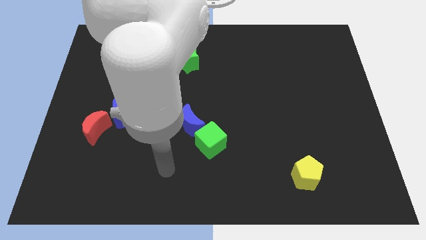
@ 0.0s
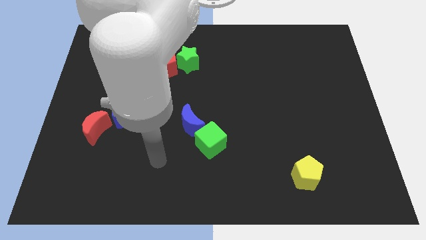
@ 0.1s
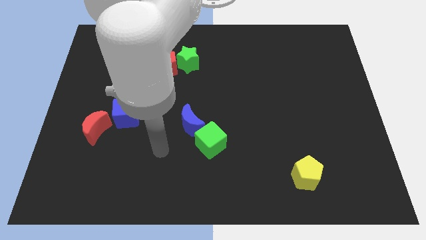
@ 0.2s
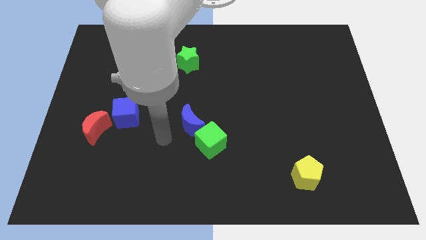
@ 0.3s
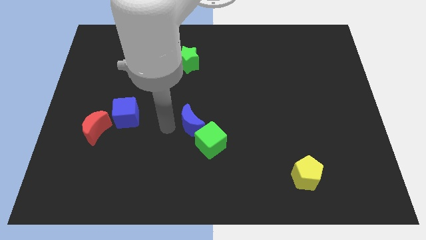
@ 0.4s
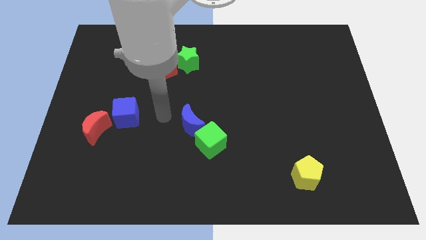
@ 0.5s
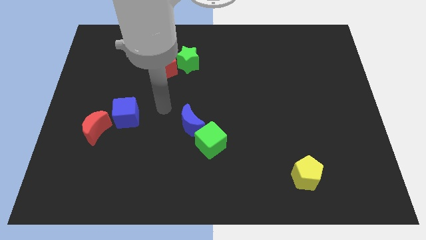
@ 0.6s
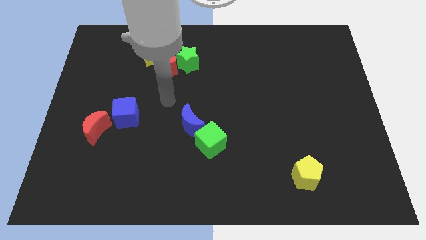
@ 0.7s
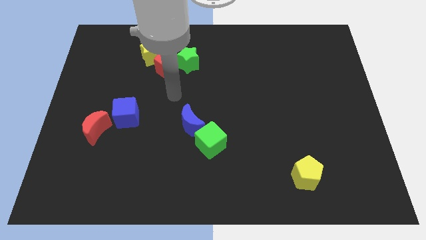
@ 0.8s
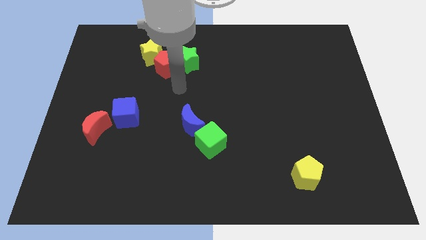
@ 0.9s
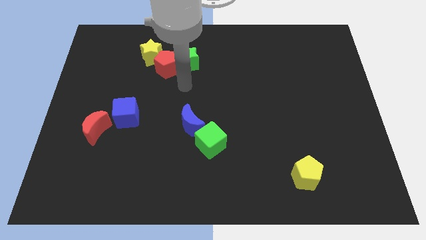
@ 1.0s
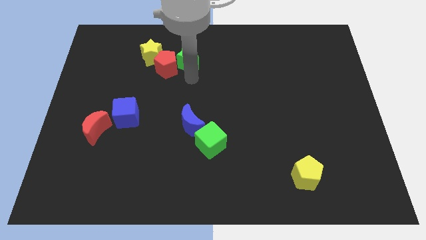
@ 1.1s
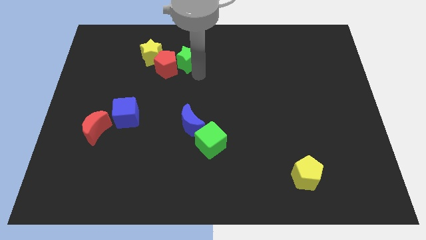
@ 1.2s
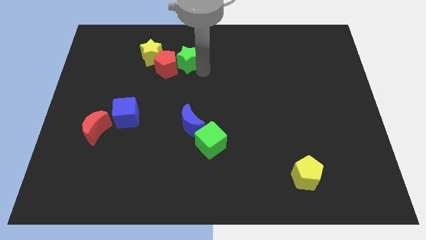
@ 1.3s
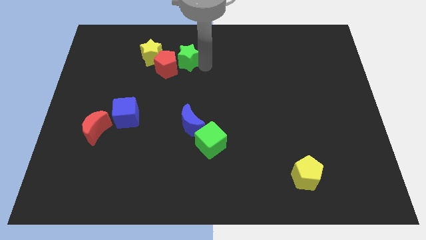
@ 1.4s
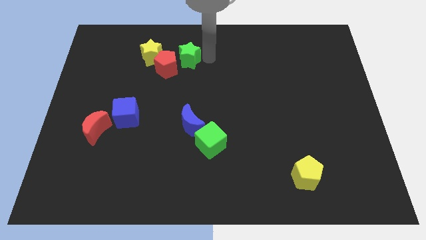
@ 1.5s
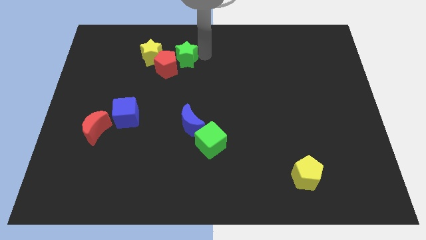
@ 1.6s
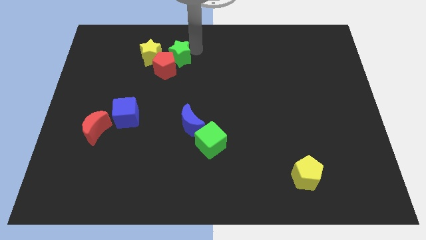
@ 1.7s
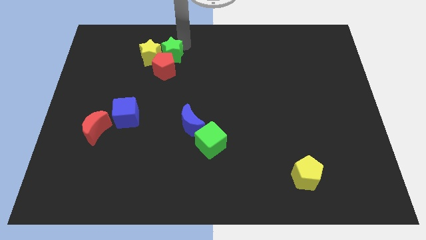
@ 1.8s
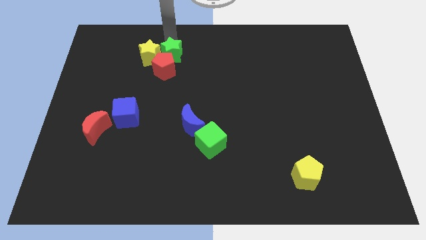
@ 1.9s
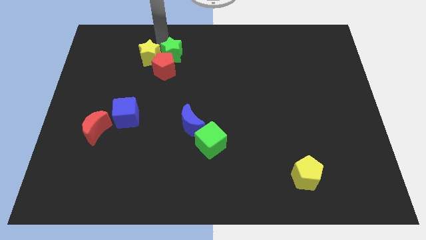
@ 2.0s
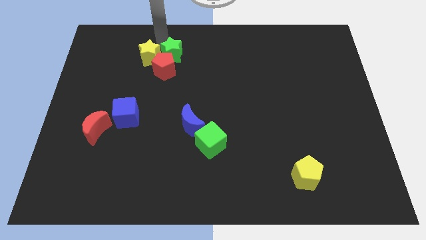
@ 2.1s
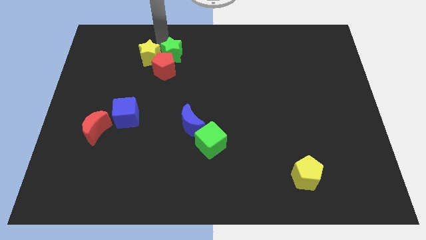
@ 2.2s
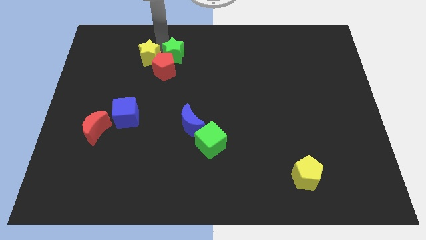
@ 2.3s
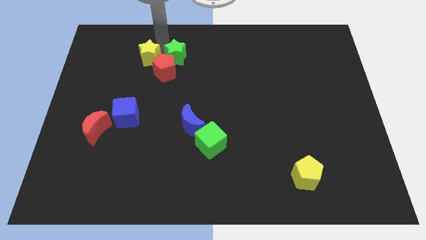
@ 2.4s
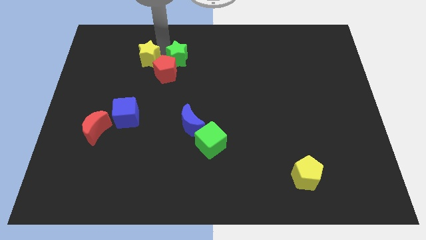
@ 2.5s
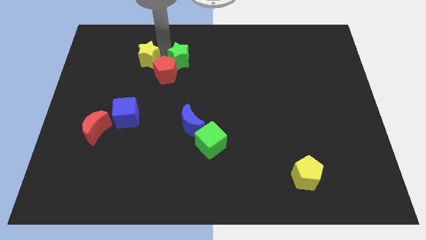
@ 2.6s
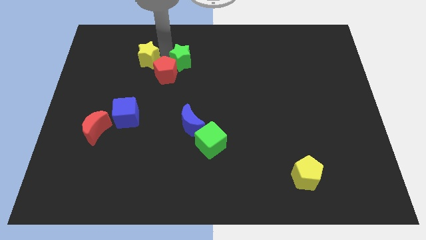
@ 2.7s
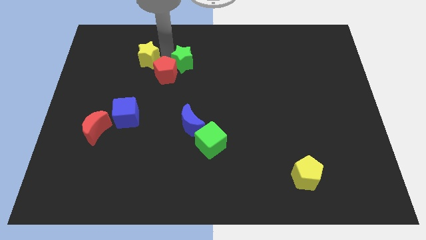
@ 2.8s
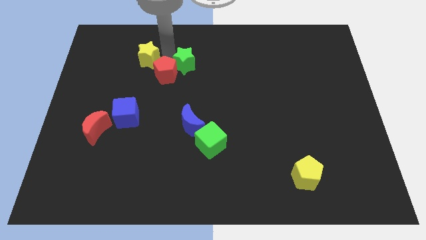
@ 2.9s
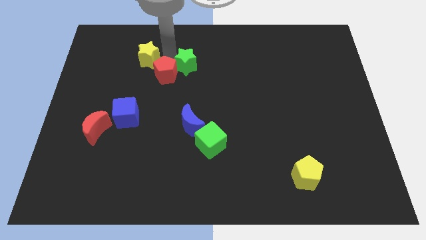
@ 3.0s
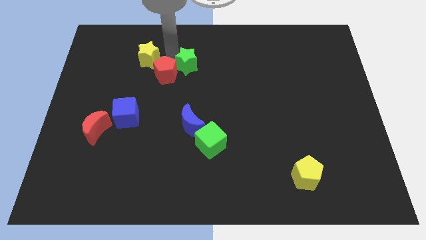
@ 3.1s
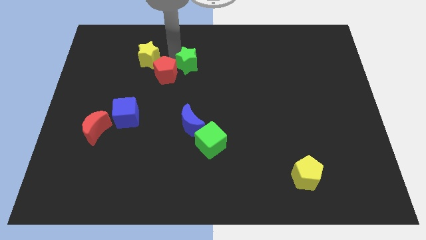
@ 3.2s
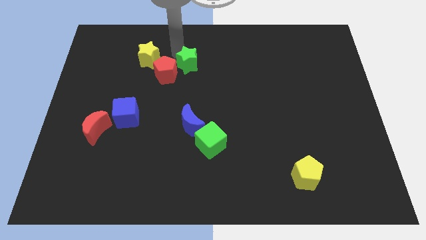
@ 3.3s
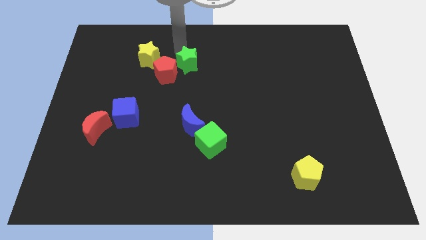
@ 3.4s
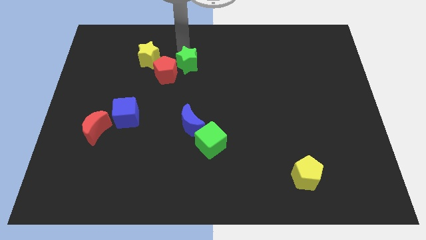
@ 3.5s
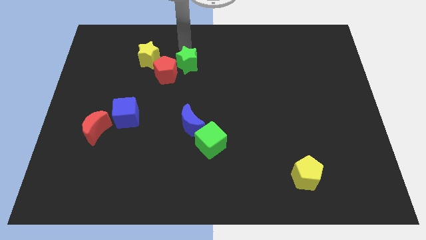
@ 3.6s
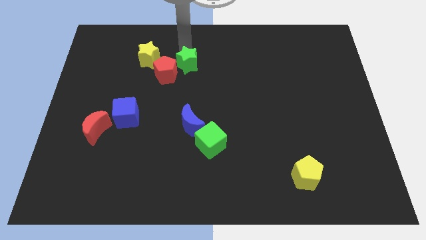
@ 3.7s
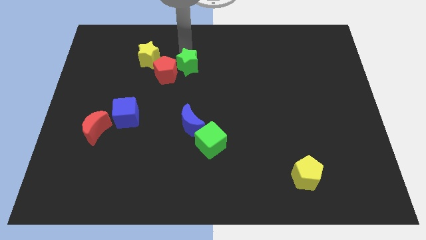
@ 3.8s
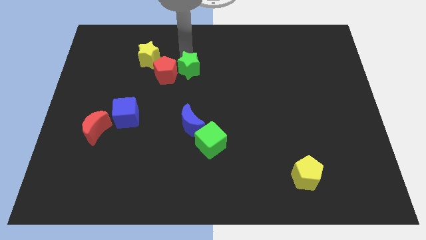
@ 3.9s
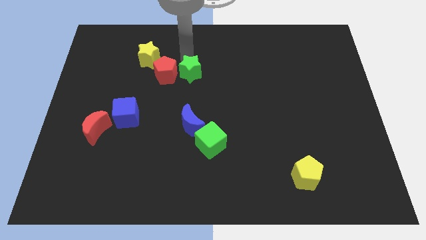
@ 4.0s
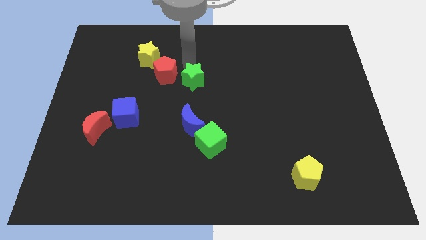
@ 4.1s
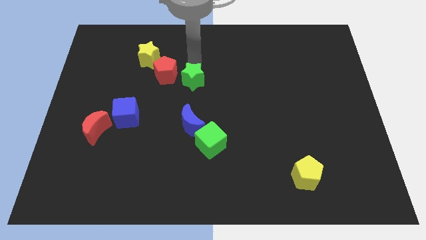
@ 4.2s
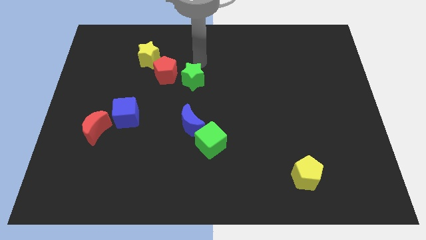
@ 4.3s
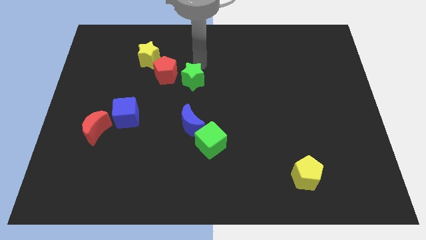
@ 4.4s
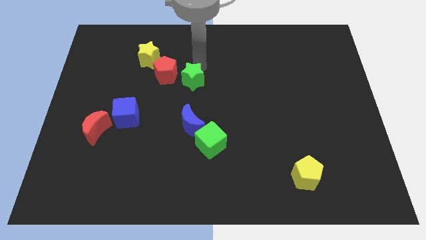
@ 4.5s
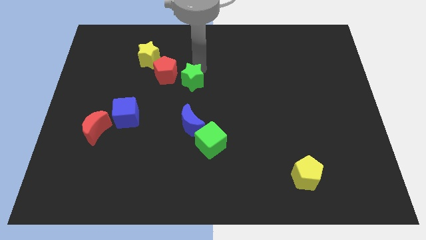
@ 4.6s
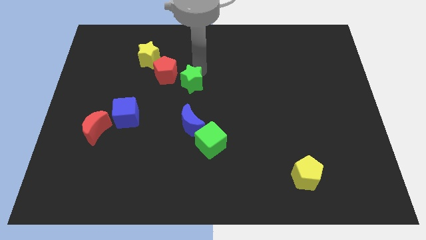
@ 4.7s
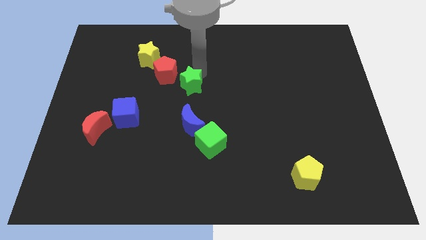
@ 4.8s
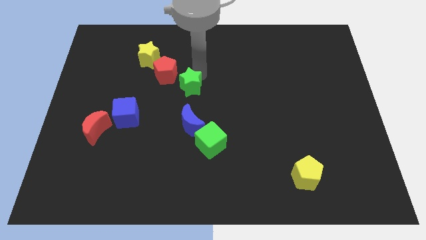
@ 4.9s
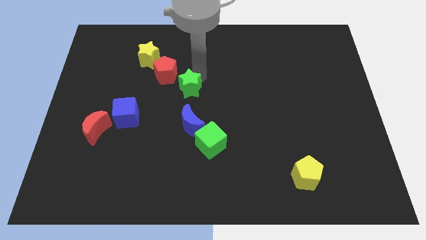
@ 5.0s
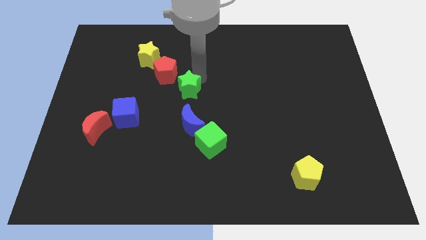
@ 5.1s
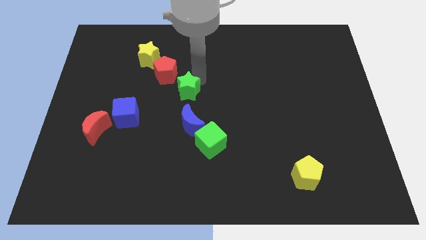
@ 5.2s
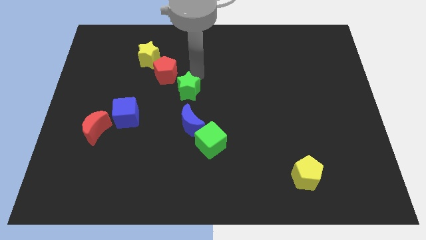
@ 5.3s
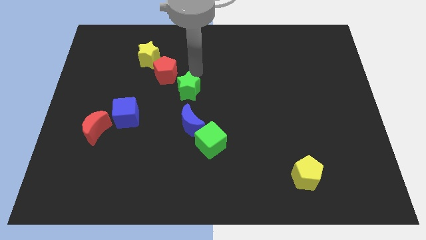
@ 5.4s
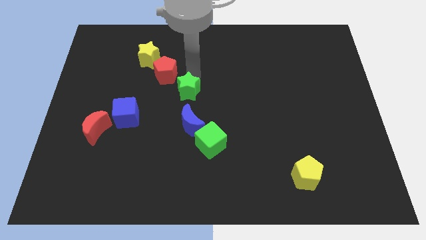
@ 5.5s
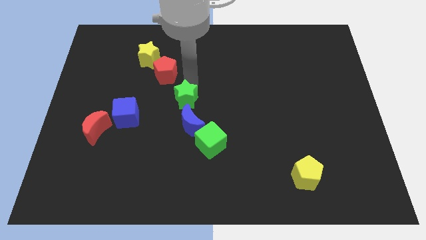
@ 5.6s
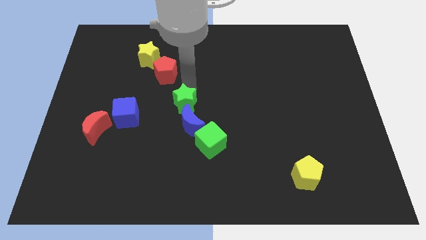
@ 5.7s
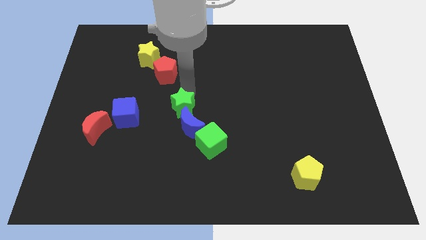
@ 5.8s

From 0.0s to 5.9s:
push the green star to the top left of the green cube

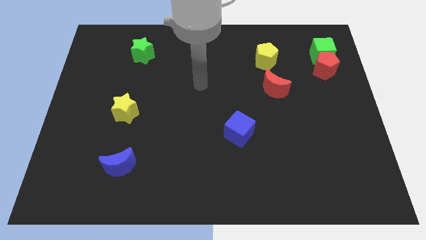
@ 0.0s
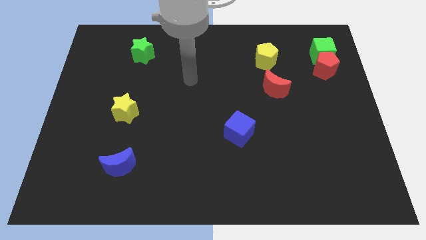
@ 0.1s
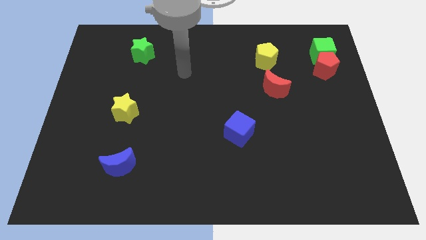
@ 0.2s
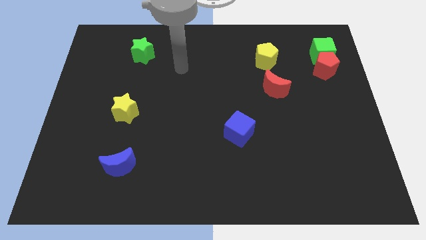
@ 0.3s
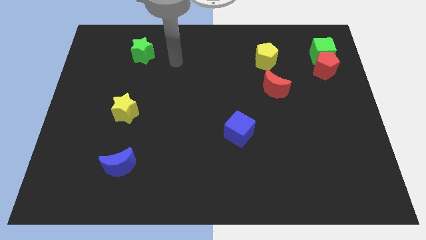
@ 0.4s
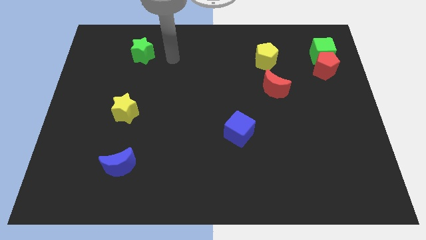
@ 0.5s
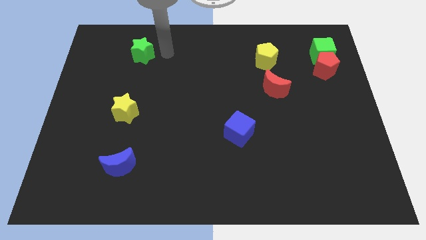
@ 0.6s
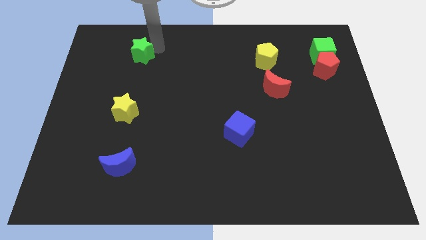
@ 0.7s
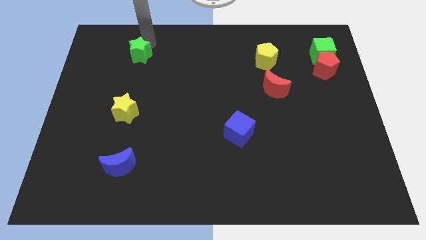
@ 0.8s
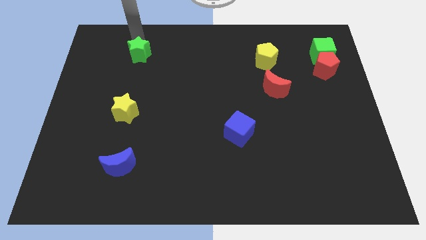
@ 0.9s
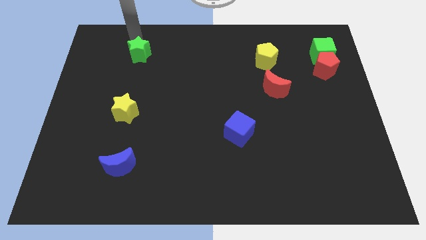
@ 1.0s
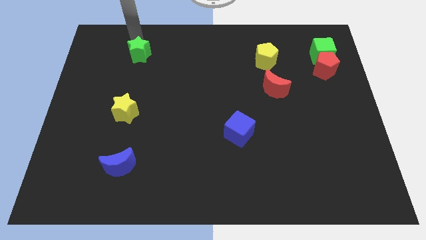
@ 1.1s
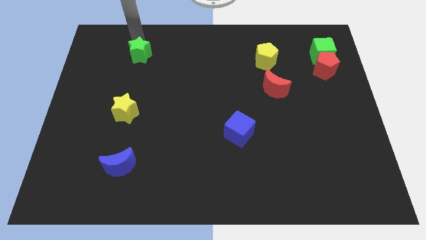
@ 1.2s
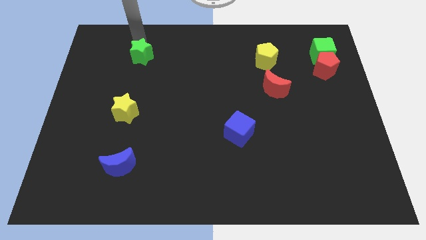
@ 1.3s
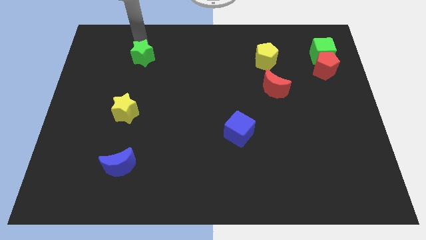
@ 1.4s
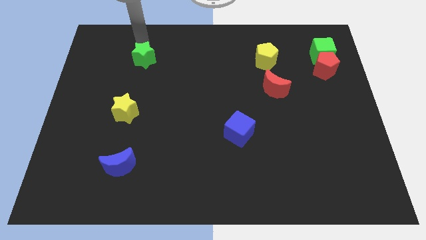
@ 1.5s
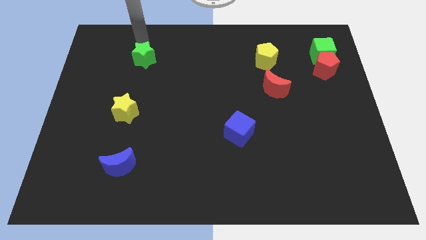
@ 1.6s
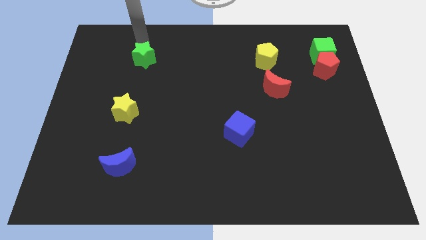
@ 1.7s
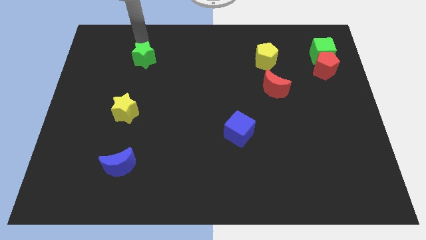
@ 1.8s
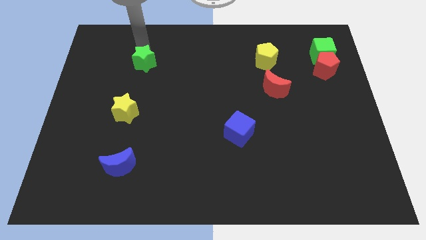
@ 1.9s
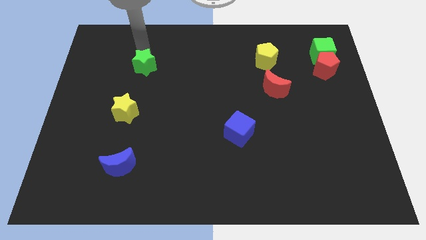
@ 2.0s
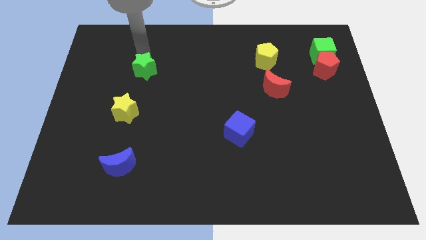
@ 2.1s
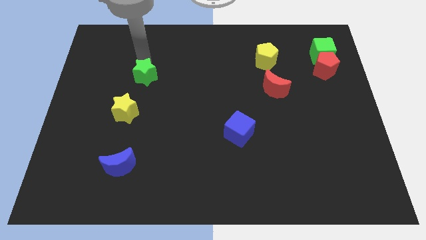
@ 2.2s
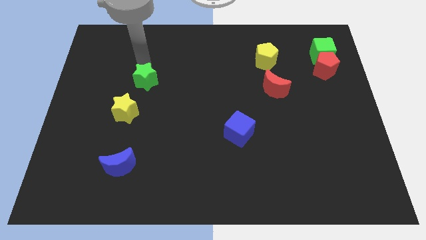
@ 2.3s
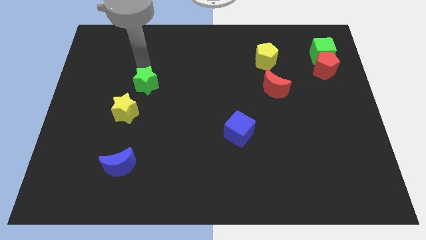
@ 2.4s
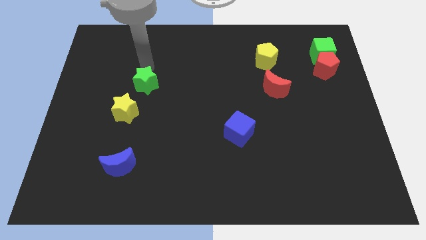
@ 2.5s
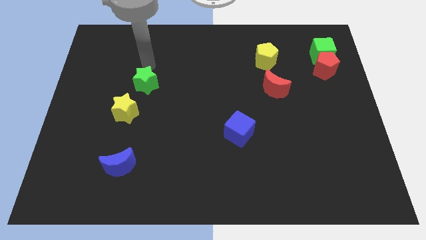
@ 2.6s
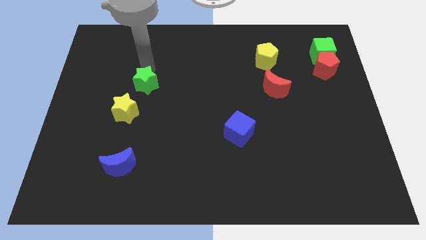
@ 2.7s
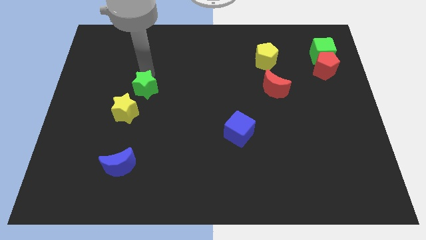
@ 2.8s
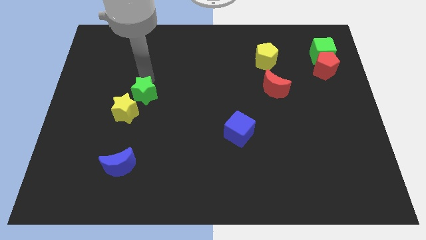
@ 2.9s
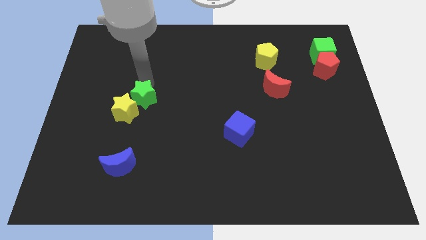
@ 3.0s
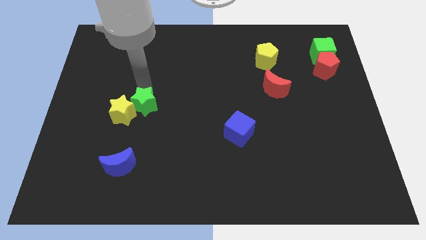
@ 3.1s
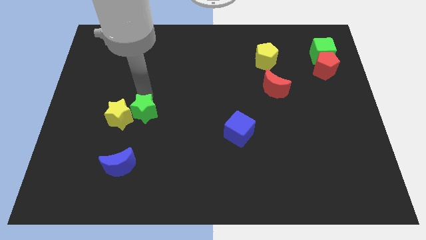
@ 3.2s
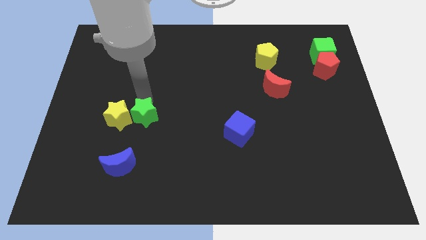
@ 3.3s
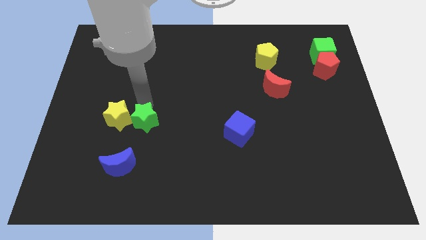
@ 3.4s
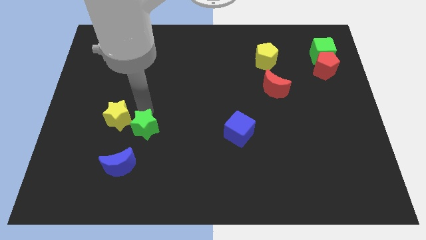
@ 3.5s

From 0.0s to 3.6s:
put the green star to the top right of the blue moon
